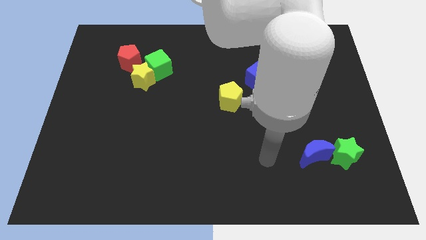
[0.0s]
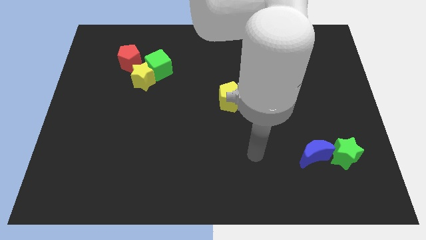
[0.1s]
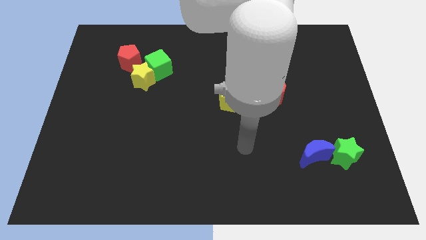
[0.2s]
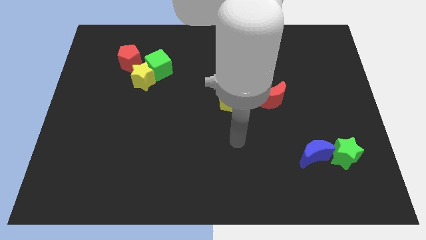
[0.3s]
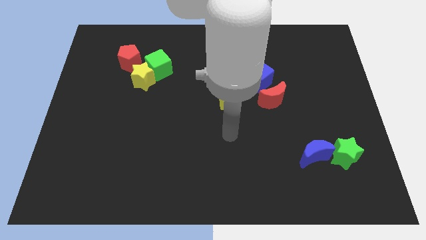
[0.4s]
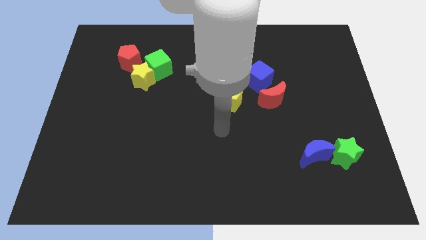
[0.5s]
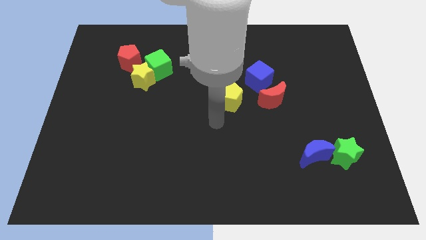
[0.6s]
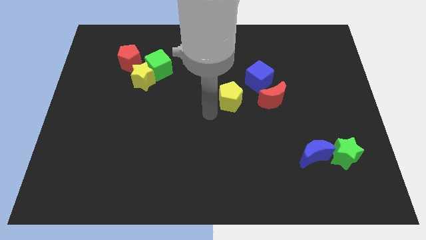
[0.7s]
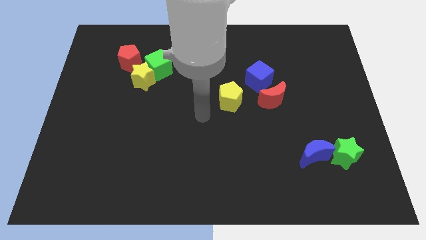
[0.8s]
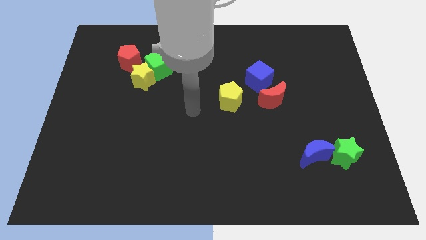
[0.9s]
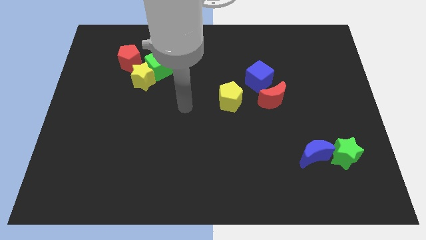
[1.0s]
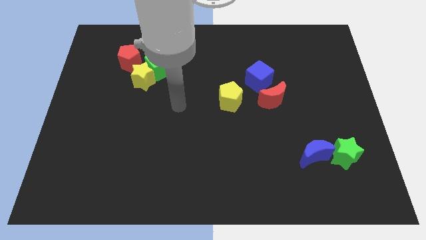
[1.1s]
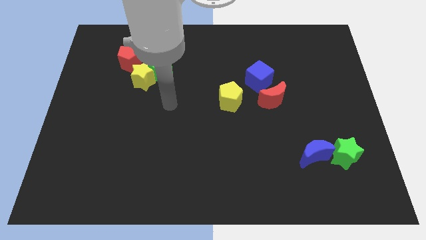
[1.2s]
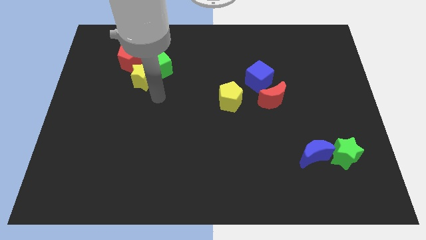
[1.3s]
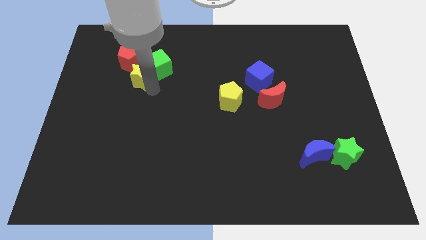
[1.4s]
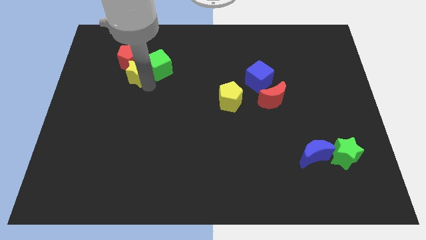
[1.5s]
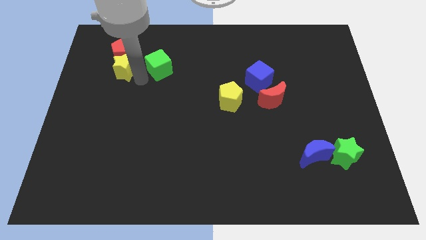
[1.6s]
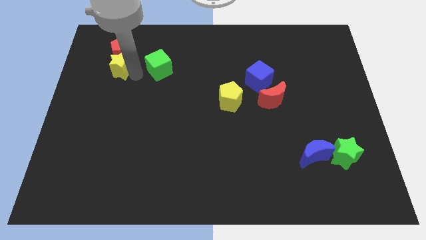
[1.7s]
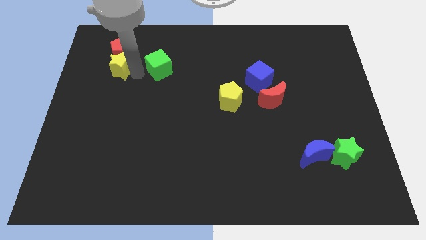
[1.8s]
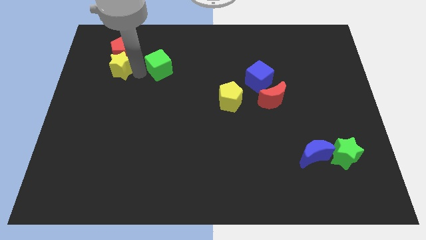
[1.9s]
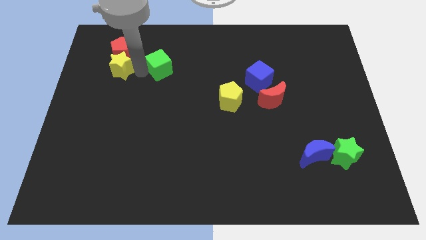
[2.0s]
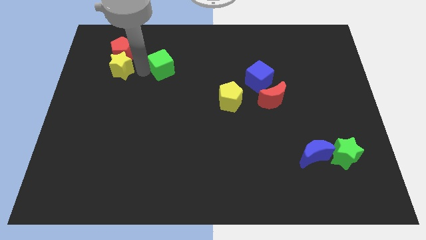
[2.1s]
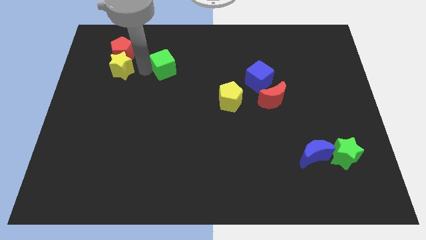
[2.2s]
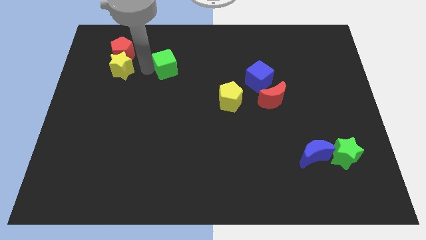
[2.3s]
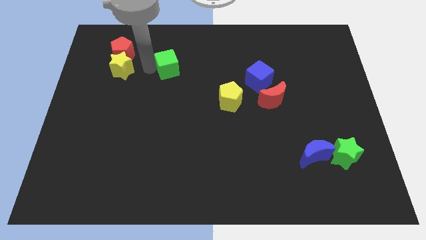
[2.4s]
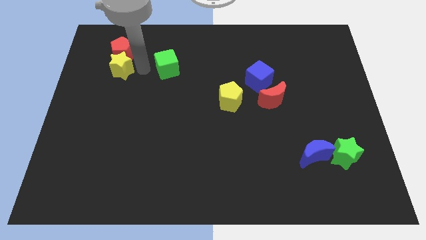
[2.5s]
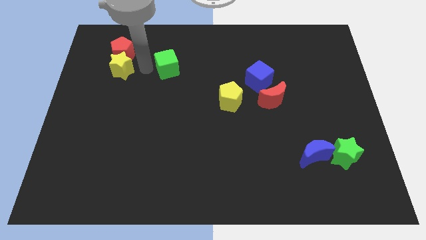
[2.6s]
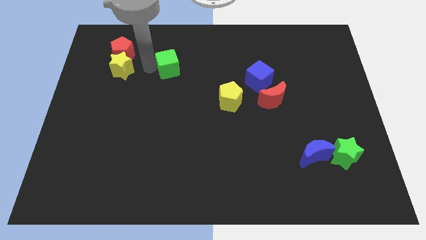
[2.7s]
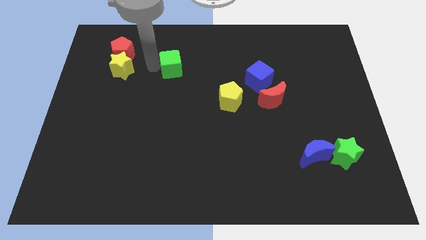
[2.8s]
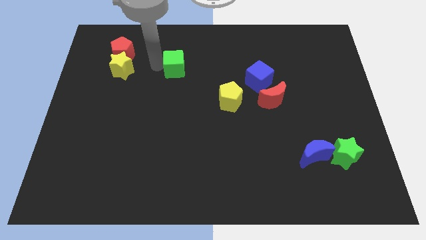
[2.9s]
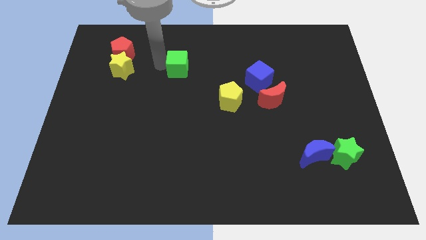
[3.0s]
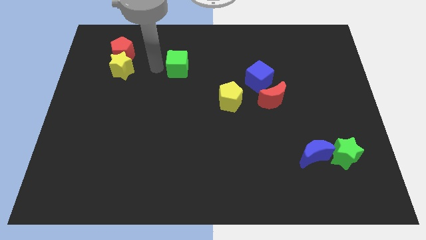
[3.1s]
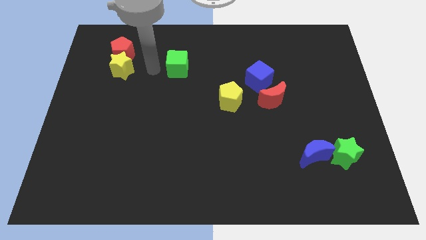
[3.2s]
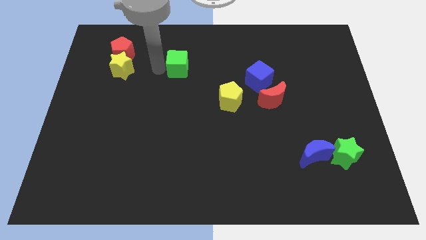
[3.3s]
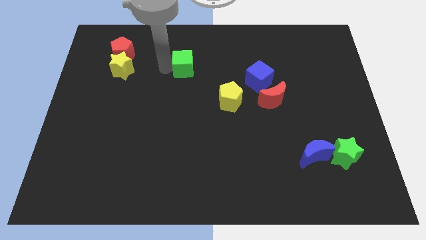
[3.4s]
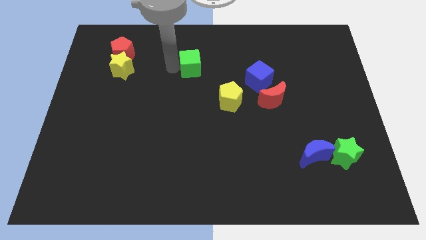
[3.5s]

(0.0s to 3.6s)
move the green cube right slightly

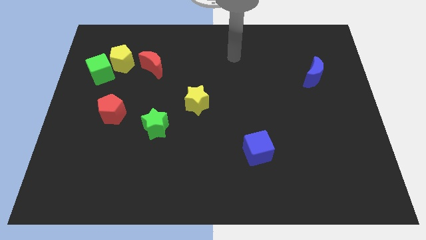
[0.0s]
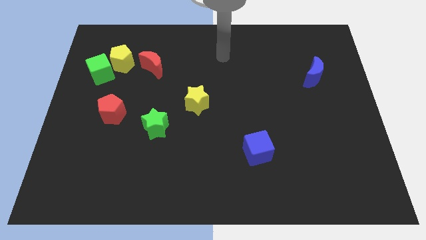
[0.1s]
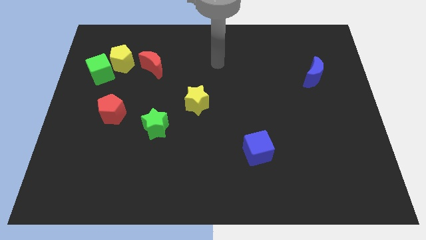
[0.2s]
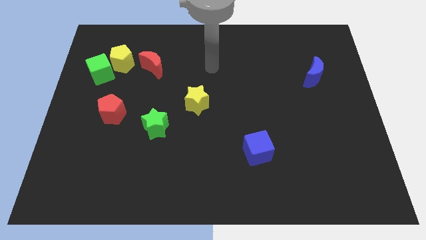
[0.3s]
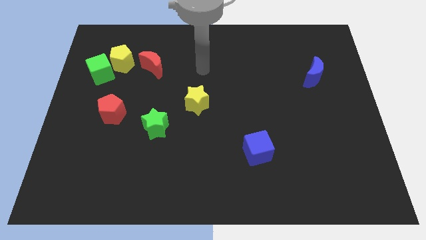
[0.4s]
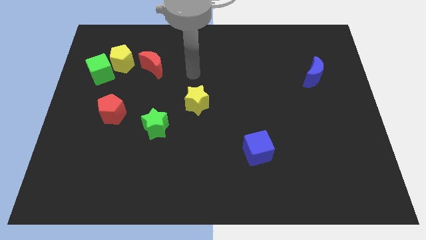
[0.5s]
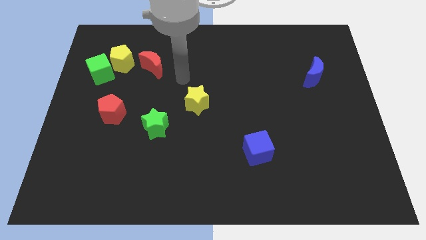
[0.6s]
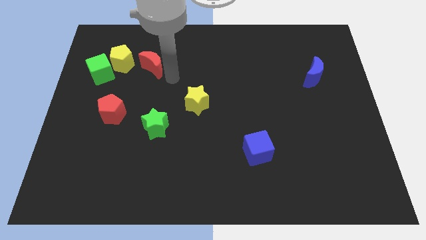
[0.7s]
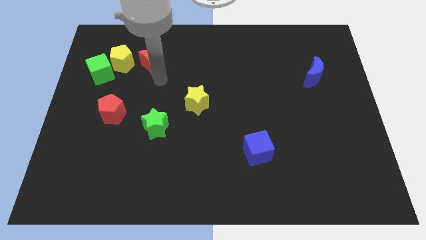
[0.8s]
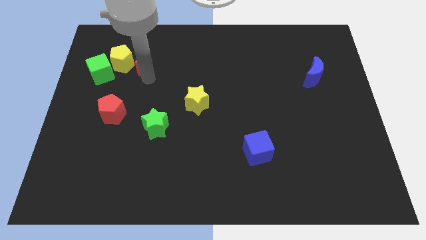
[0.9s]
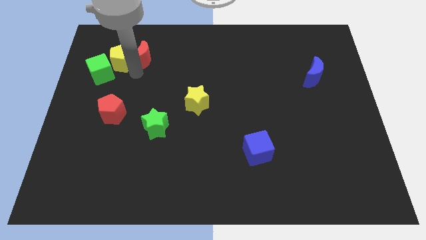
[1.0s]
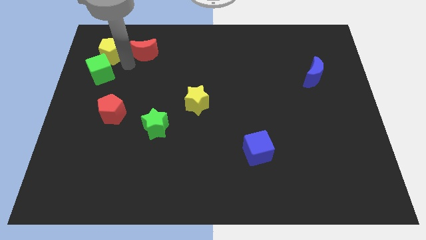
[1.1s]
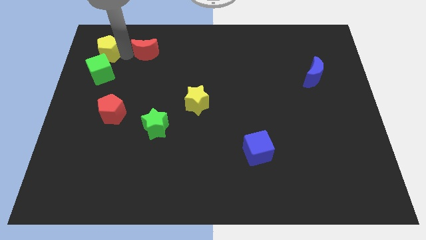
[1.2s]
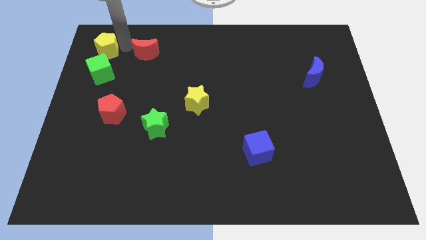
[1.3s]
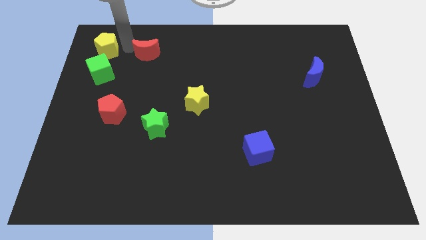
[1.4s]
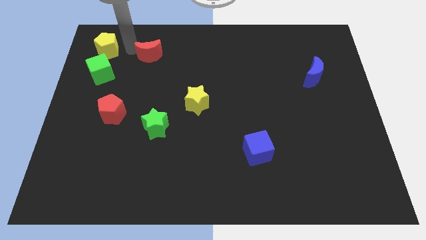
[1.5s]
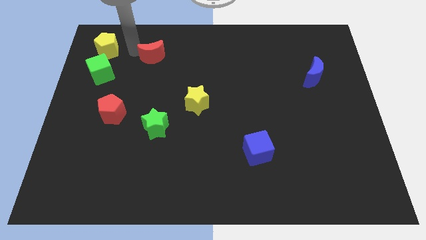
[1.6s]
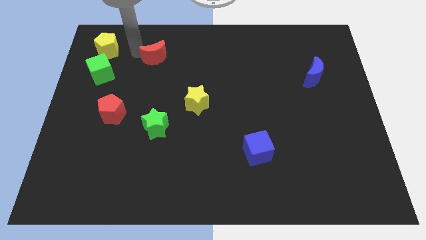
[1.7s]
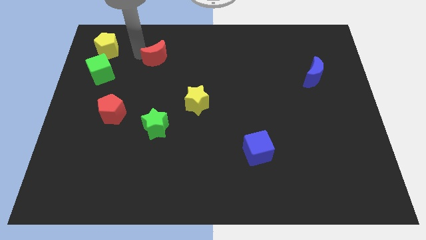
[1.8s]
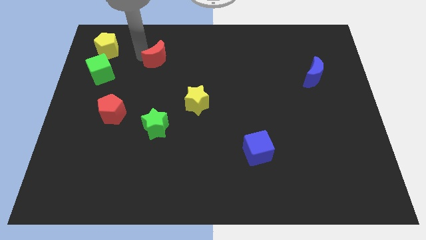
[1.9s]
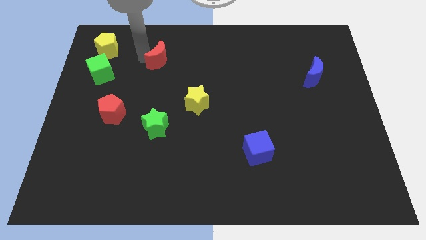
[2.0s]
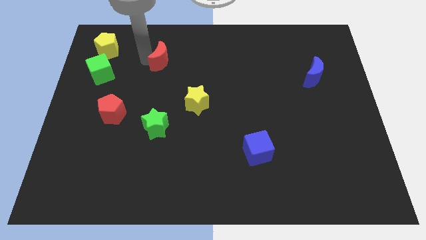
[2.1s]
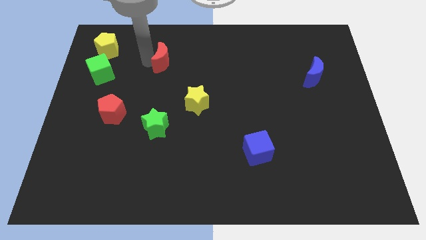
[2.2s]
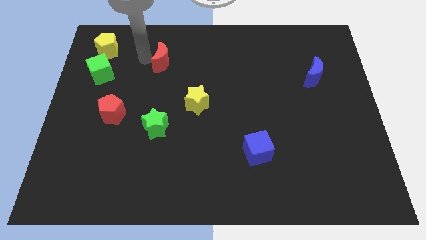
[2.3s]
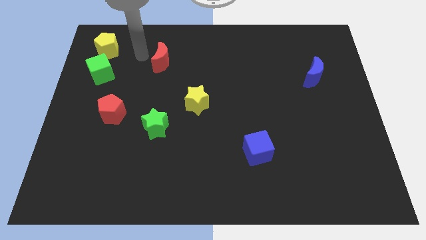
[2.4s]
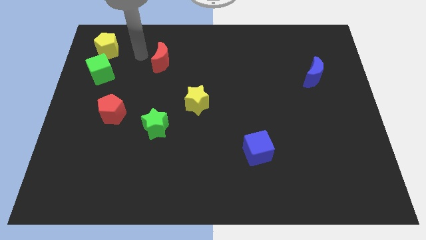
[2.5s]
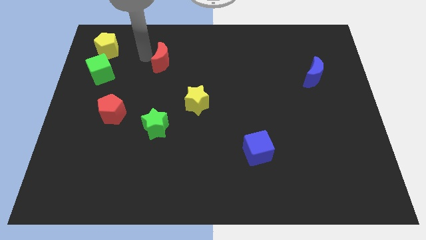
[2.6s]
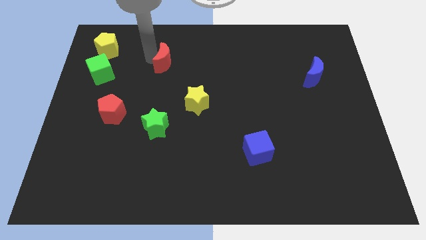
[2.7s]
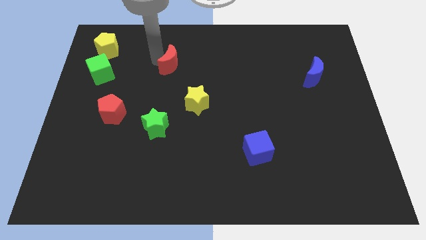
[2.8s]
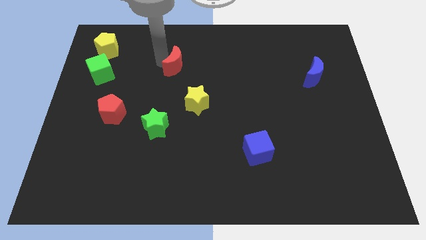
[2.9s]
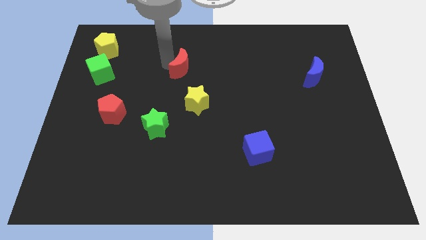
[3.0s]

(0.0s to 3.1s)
slightly move the red moon right

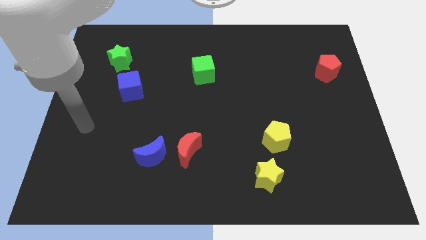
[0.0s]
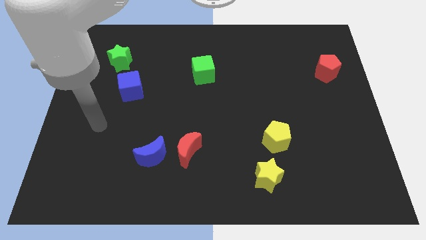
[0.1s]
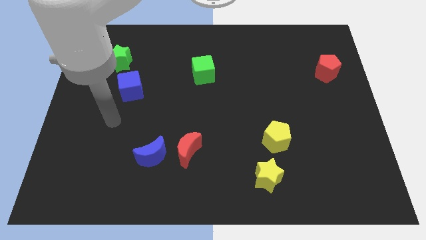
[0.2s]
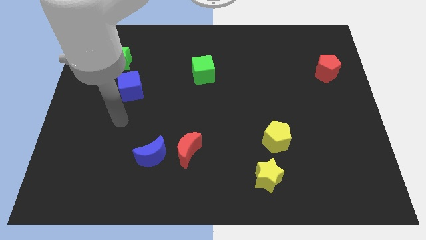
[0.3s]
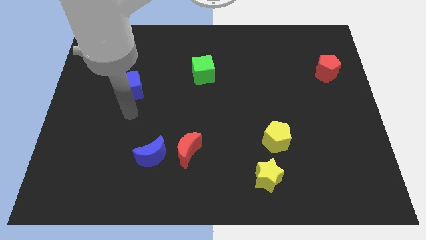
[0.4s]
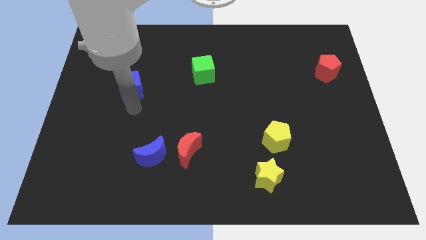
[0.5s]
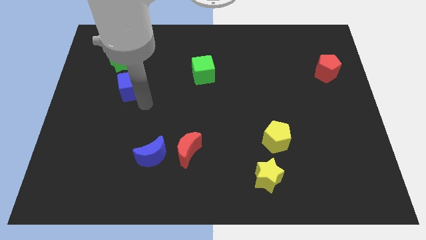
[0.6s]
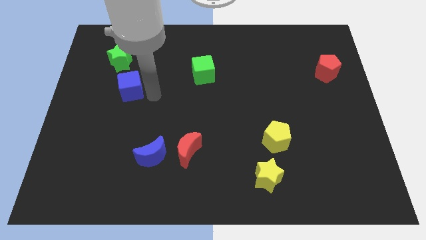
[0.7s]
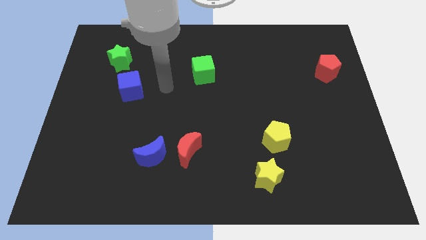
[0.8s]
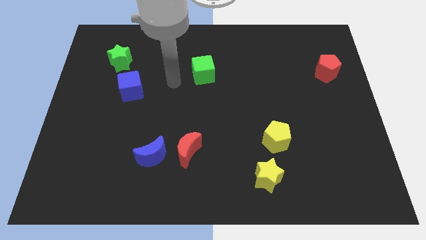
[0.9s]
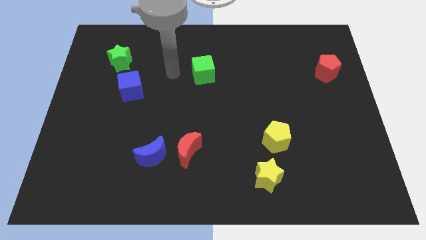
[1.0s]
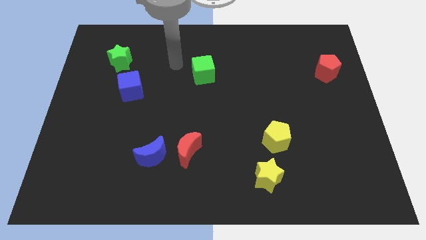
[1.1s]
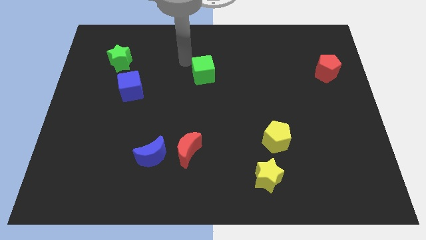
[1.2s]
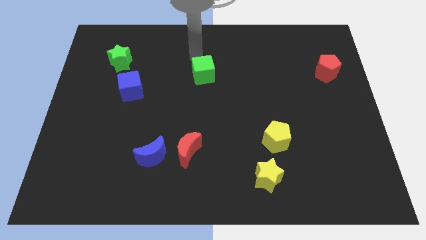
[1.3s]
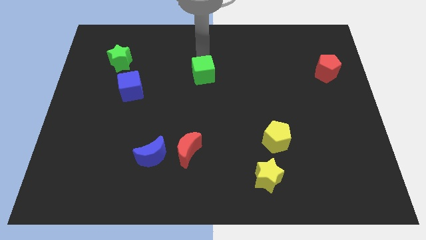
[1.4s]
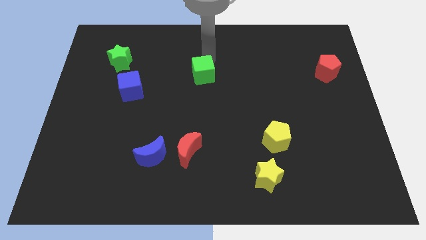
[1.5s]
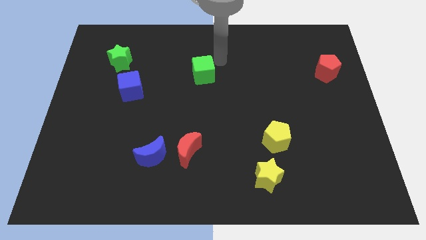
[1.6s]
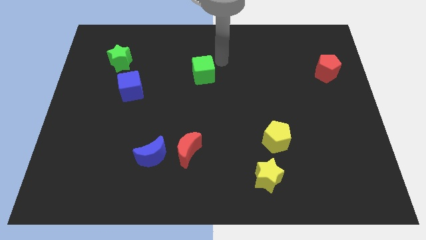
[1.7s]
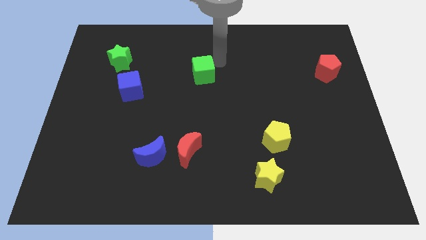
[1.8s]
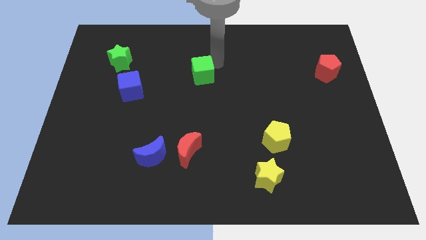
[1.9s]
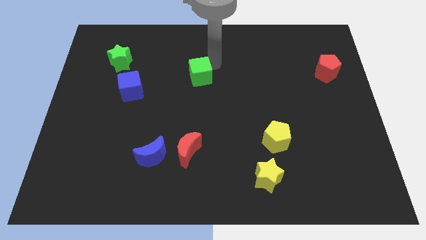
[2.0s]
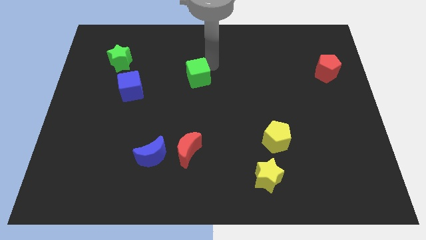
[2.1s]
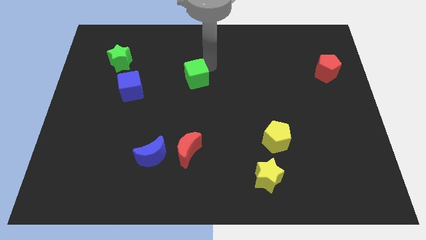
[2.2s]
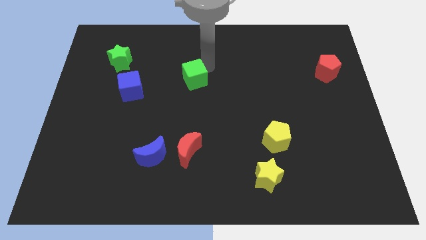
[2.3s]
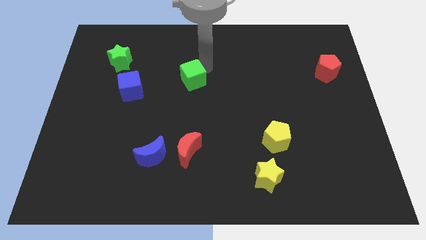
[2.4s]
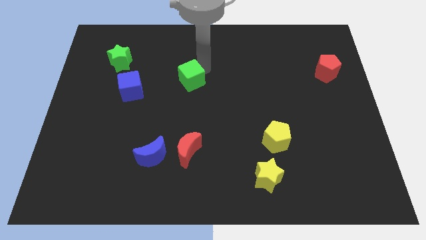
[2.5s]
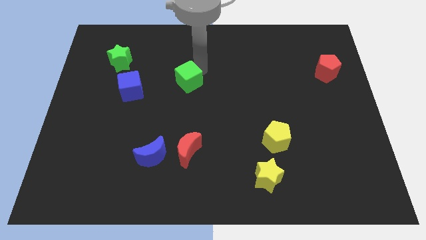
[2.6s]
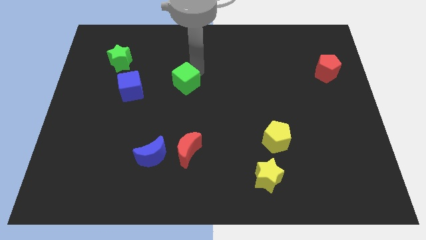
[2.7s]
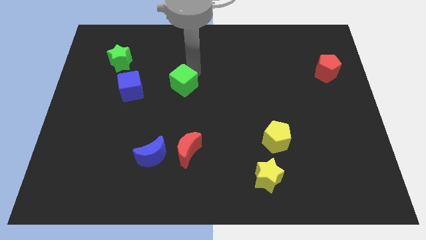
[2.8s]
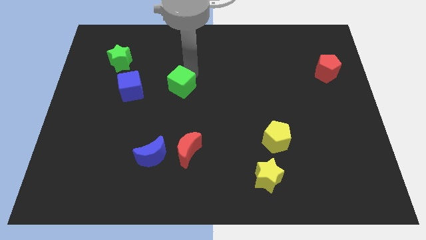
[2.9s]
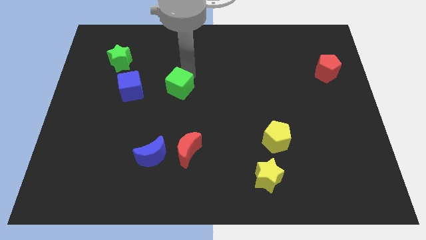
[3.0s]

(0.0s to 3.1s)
slightly slide the green cube downwards and then left
